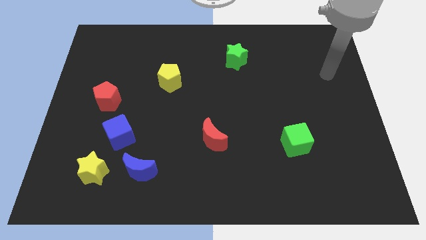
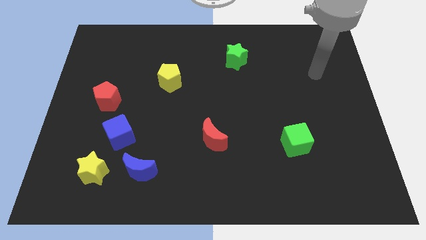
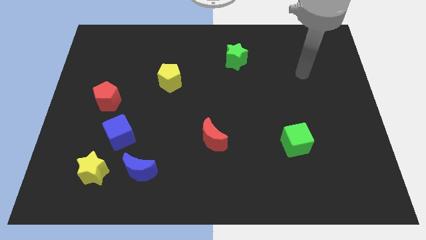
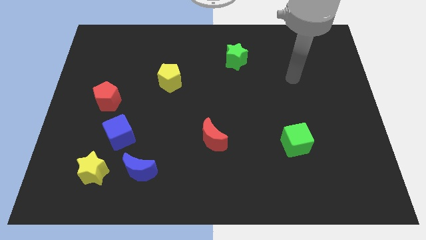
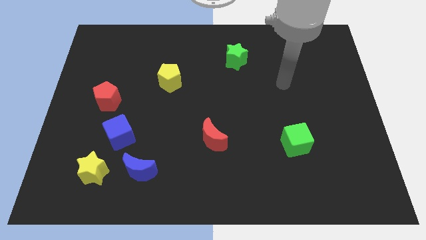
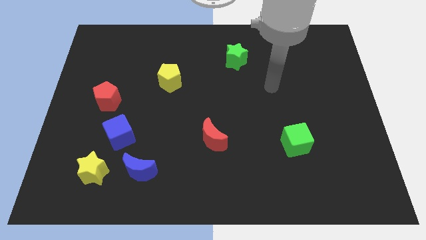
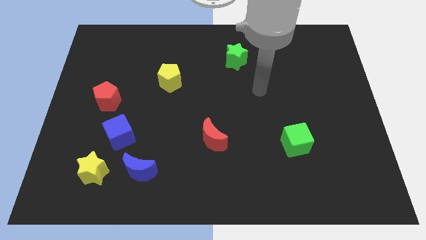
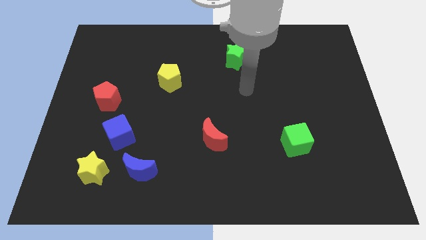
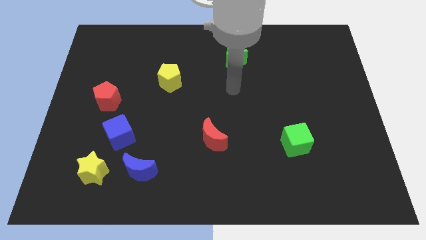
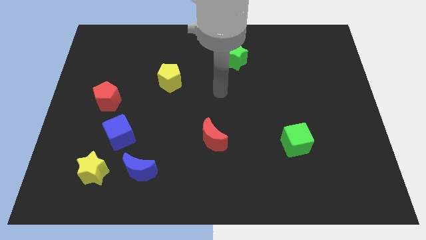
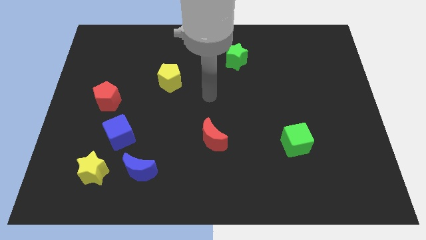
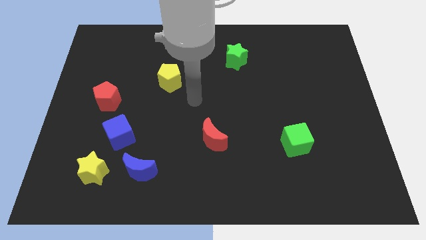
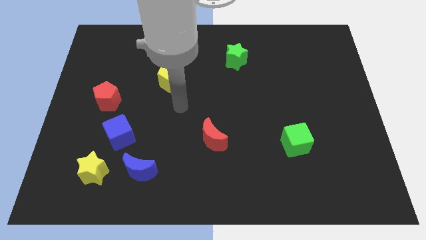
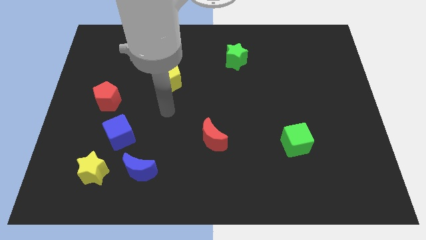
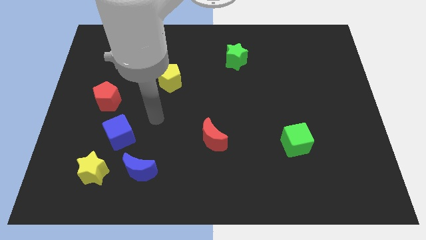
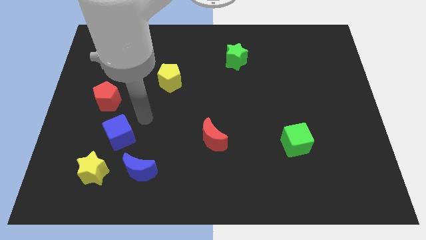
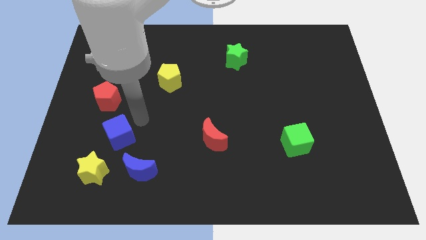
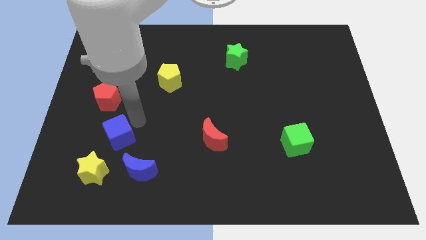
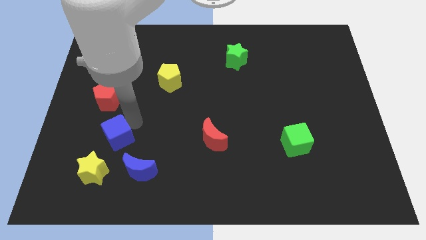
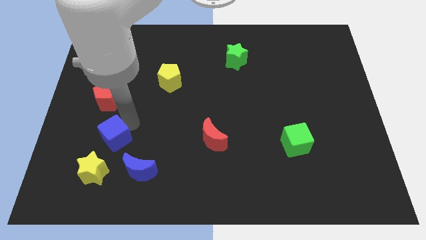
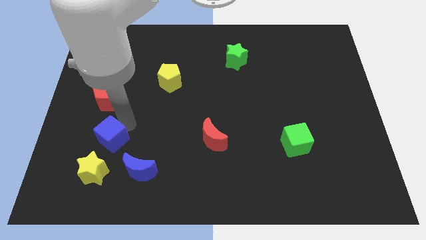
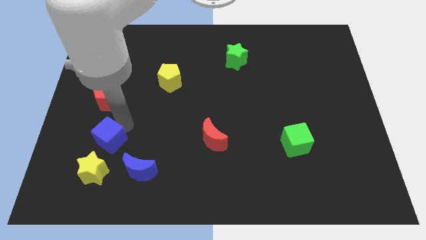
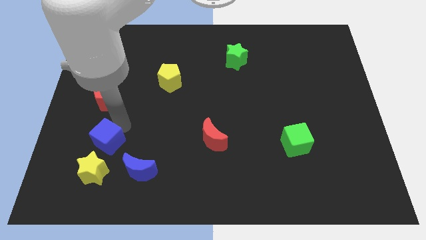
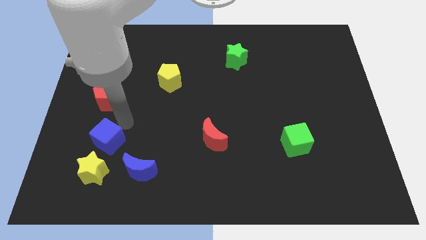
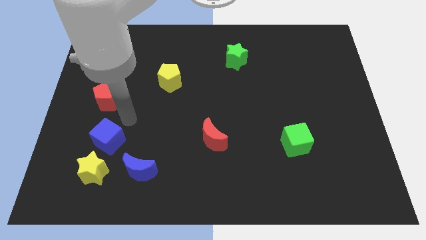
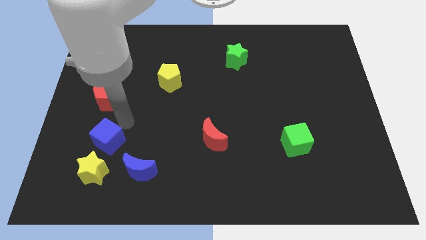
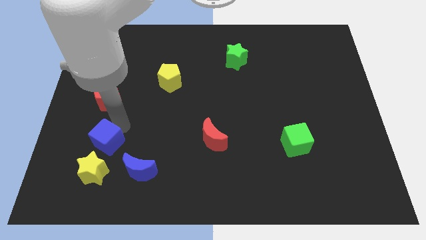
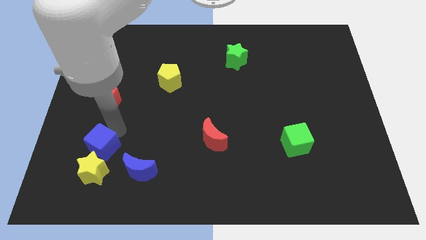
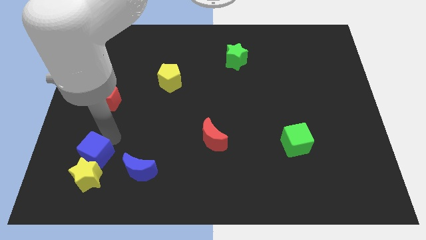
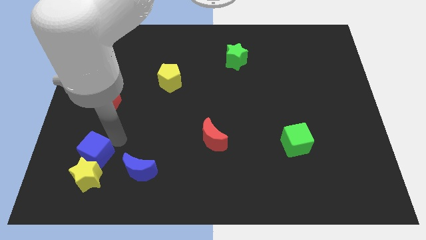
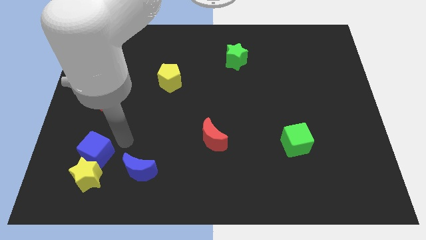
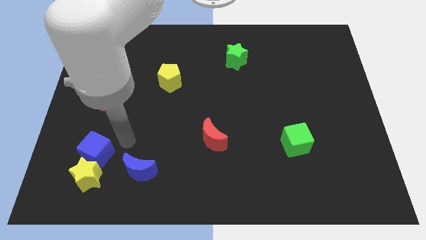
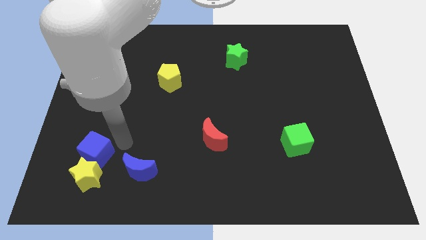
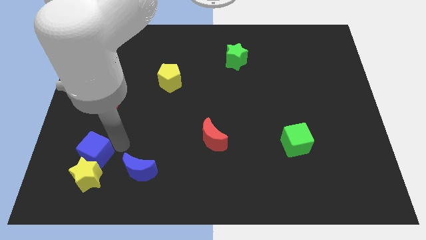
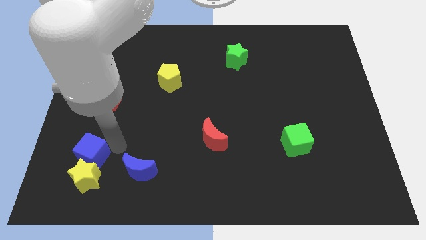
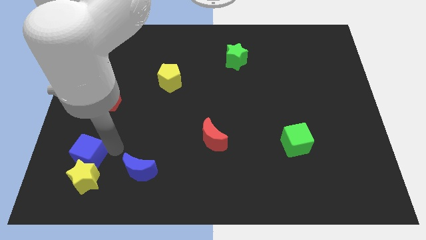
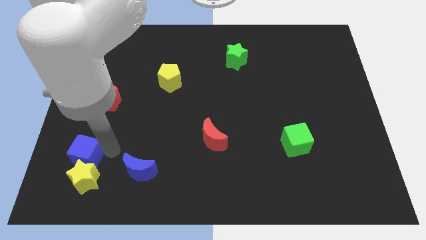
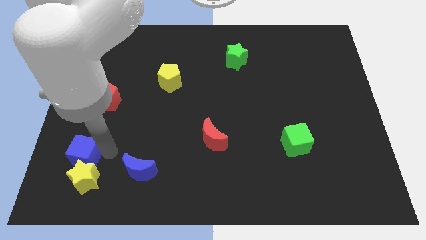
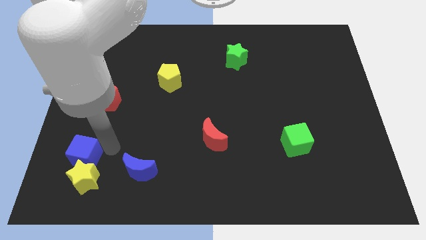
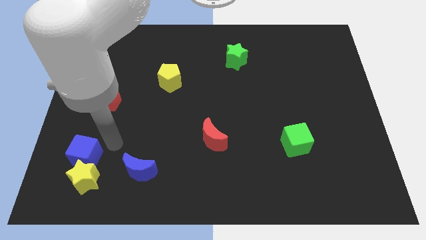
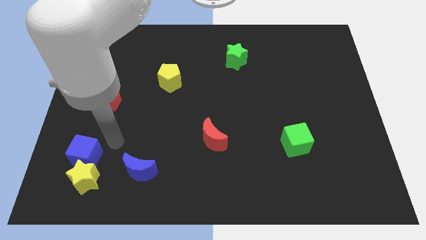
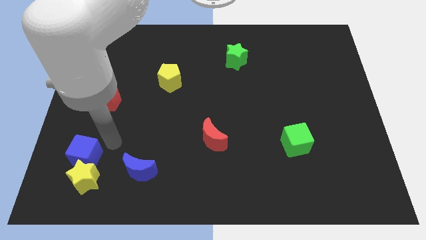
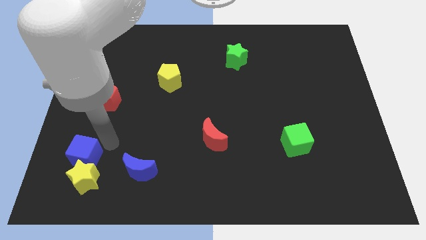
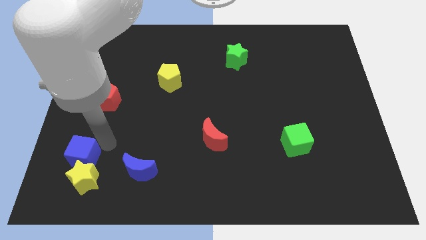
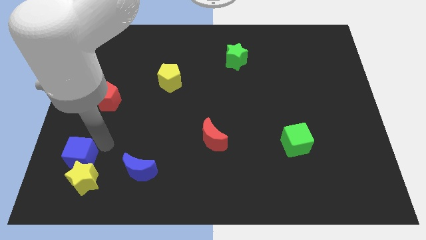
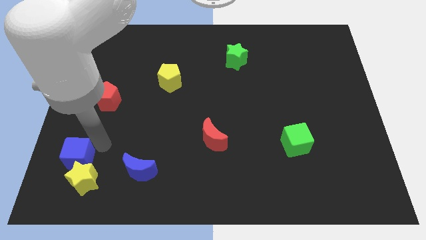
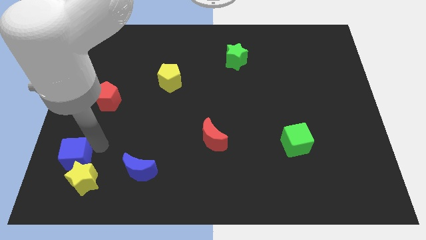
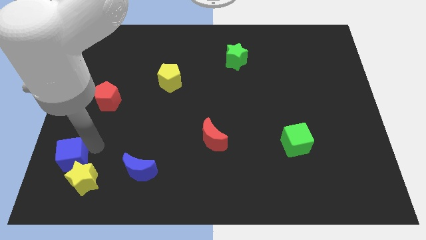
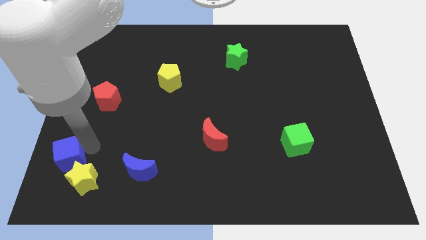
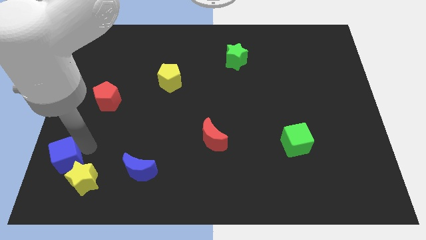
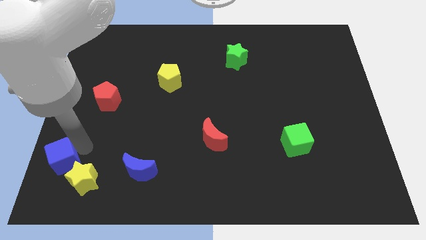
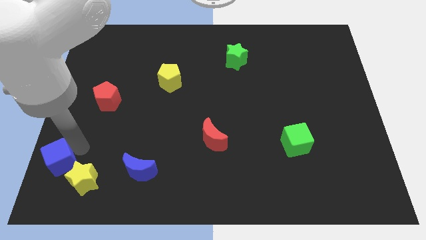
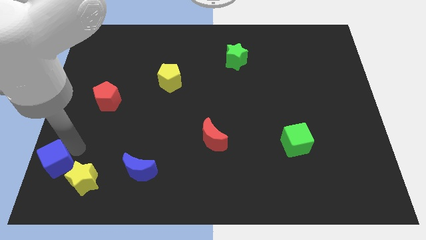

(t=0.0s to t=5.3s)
put the blue cube to the bottom left corner

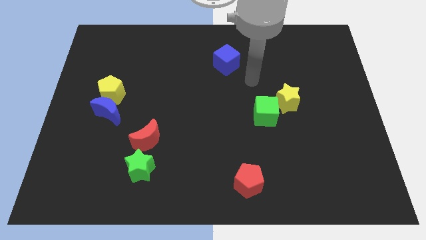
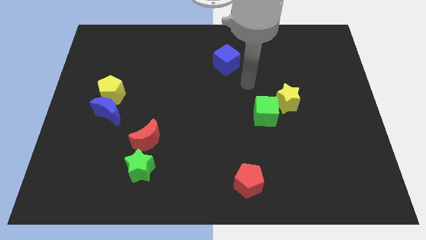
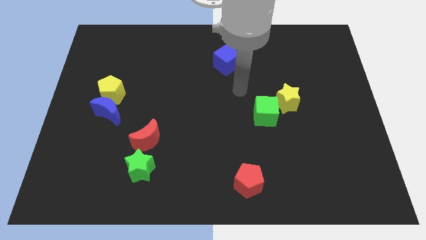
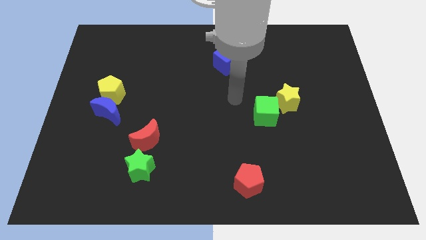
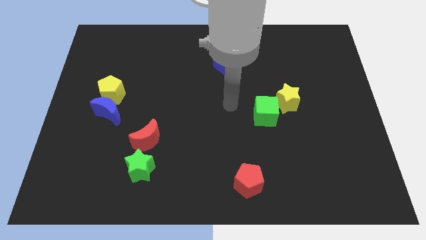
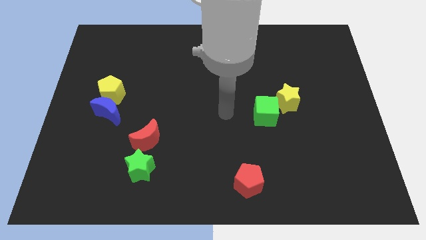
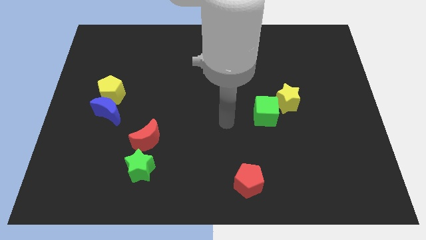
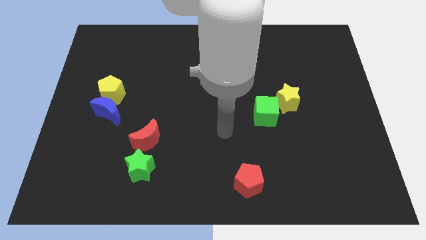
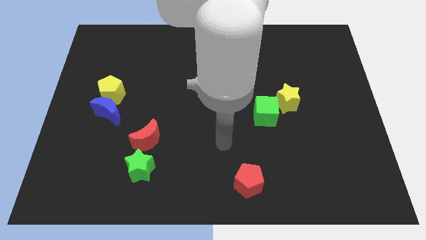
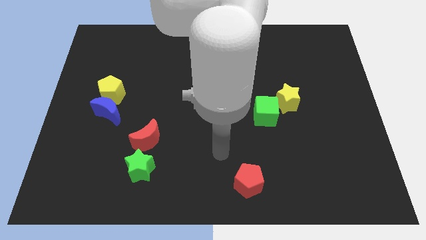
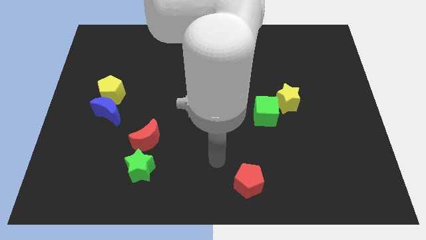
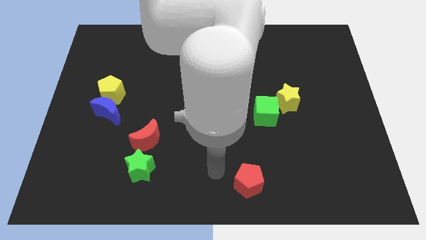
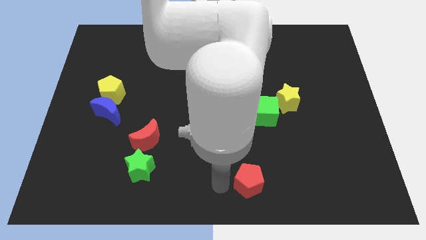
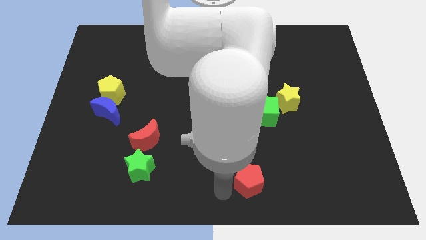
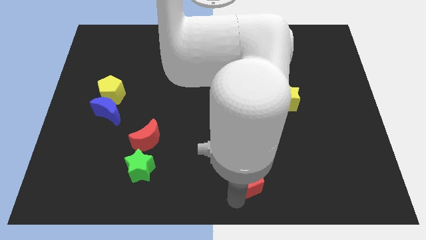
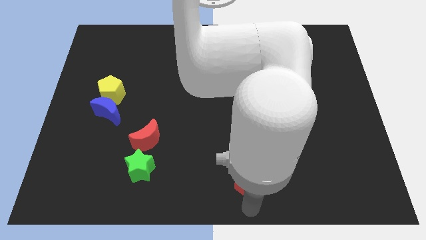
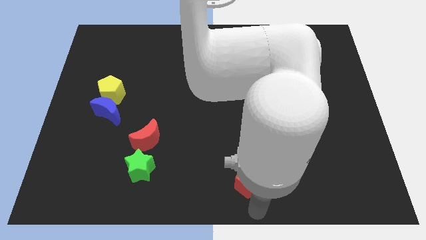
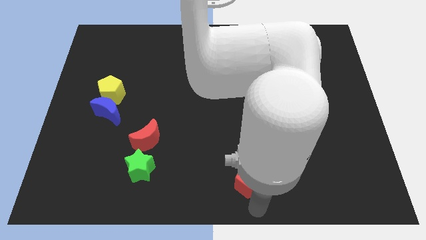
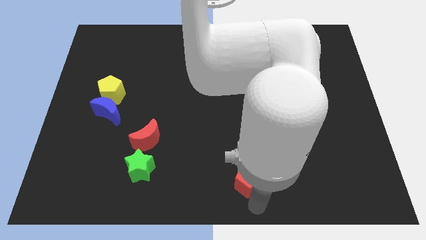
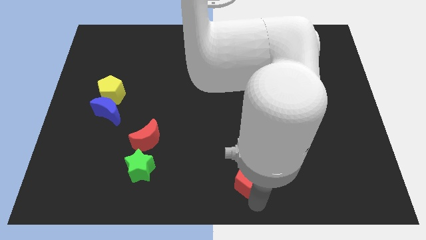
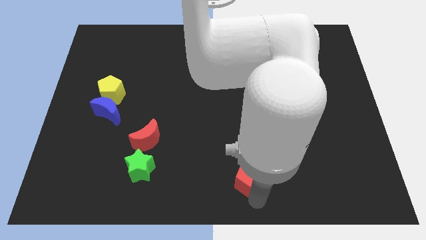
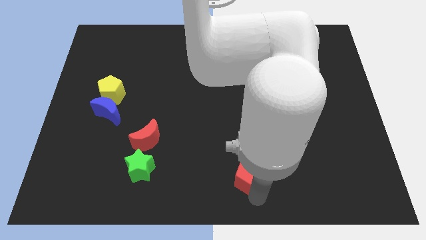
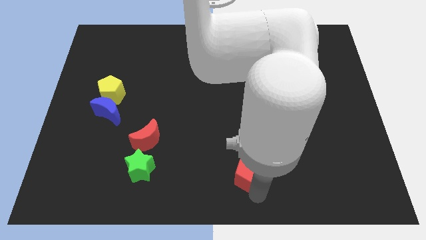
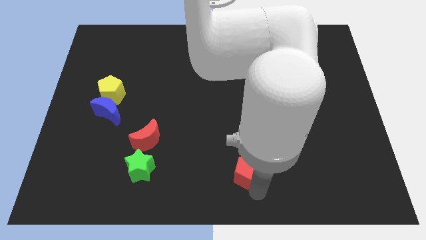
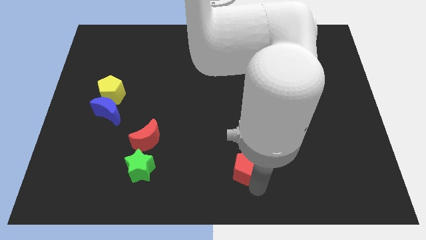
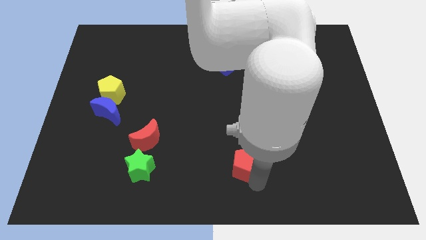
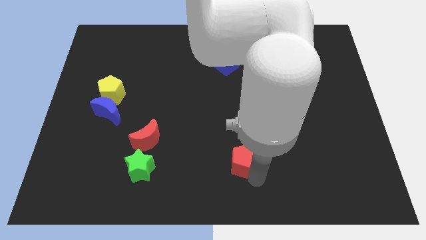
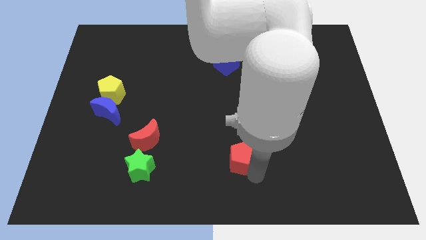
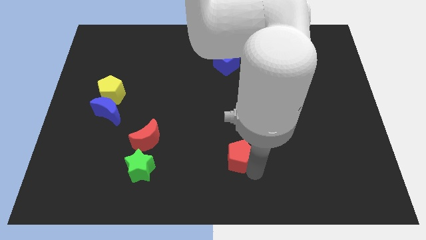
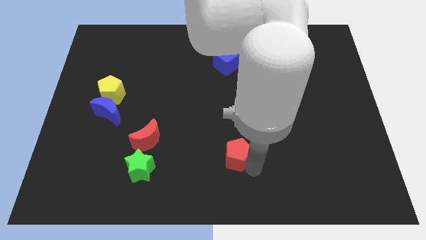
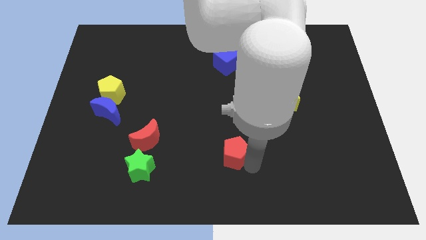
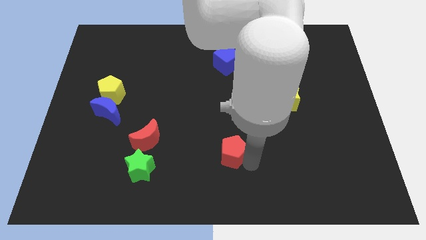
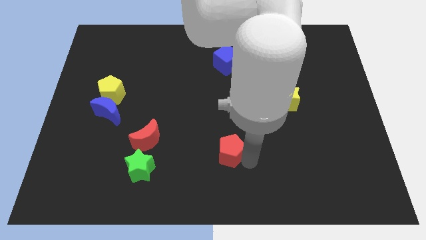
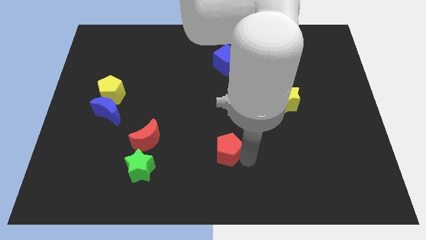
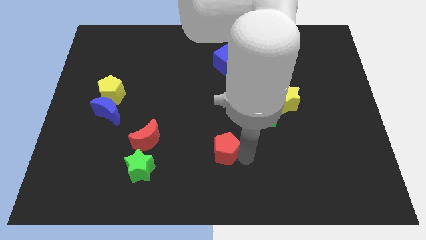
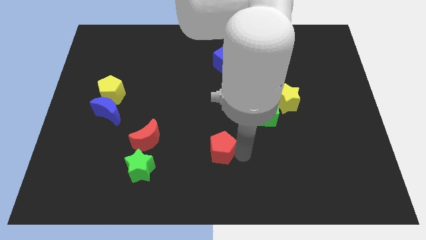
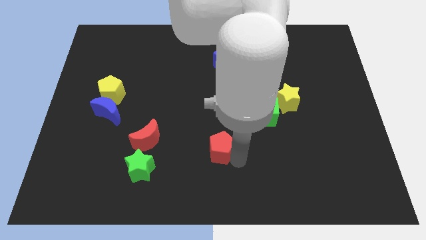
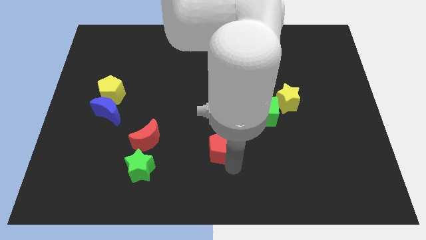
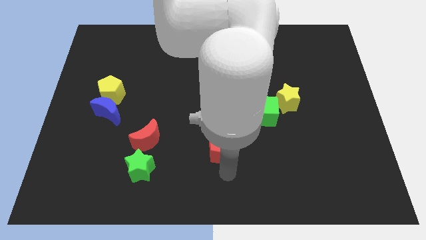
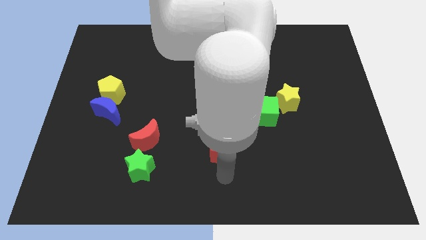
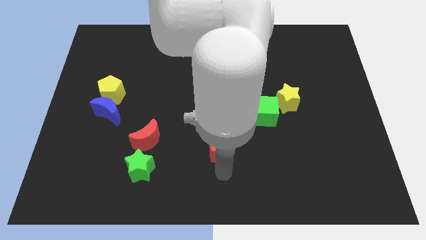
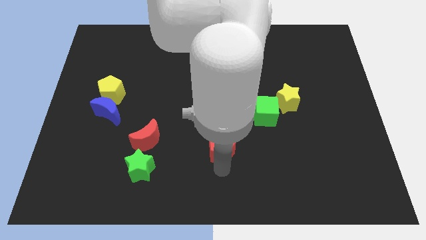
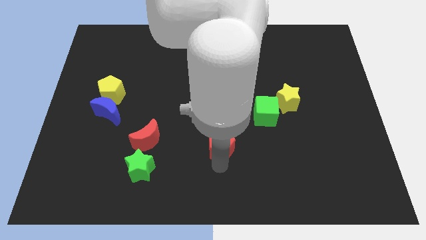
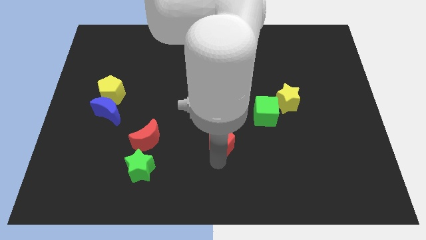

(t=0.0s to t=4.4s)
move the red pentagon to the middle
